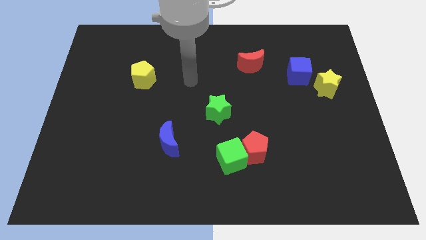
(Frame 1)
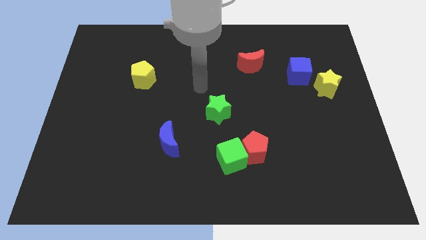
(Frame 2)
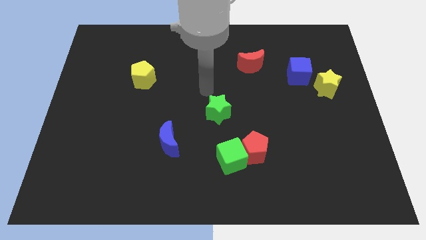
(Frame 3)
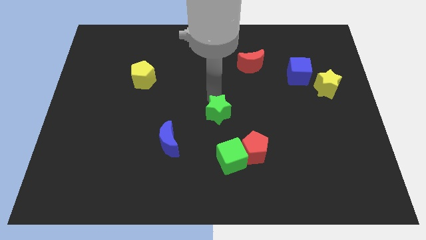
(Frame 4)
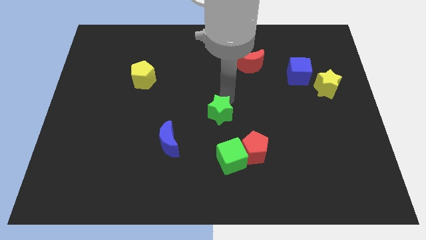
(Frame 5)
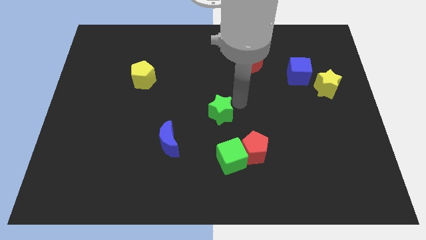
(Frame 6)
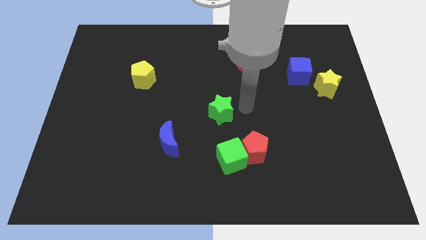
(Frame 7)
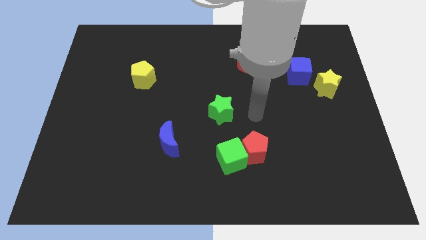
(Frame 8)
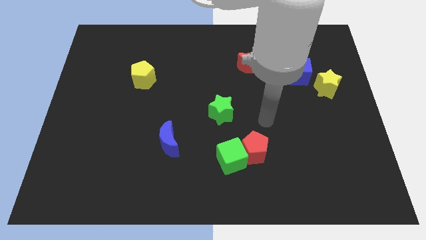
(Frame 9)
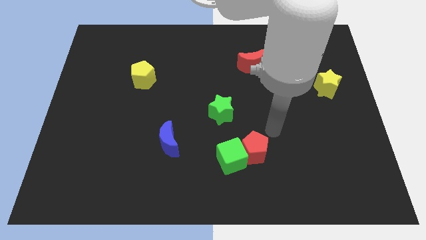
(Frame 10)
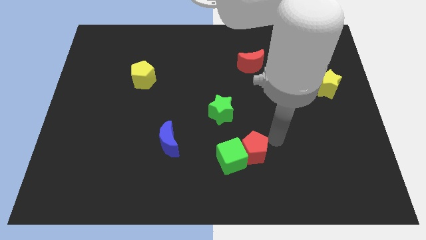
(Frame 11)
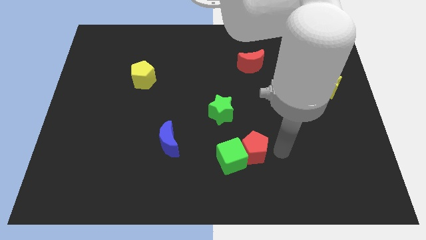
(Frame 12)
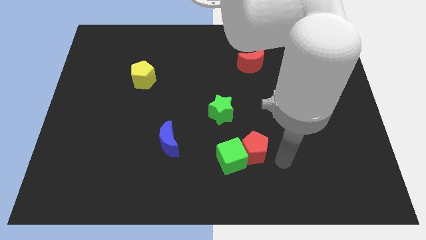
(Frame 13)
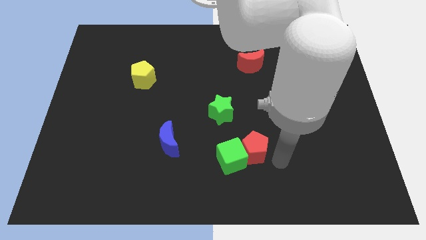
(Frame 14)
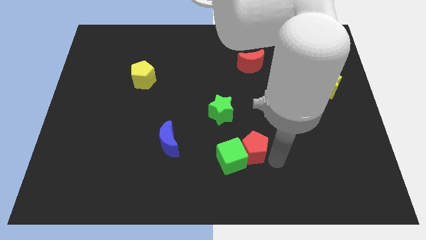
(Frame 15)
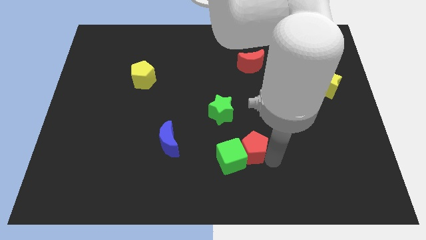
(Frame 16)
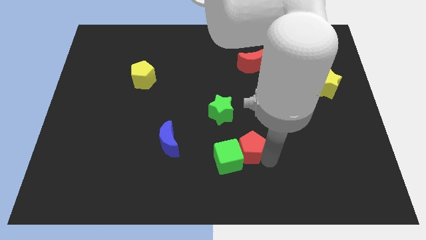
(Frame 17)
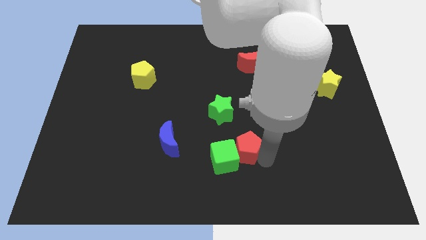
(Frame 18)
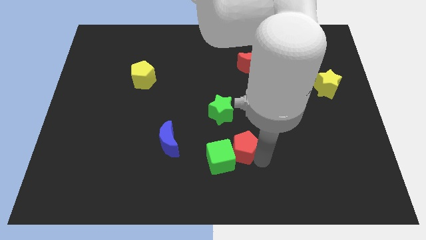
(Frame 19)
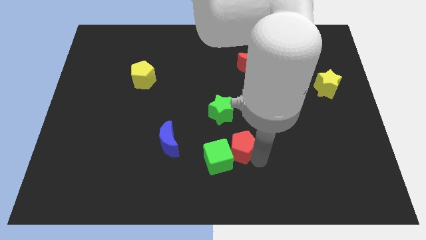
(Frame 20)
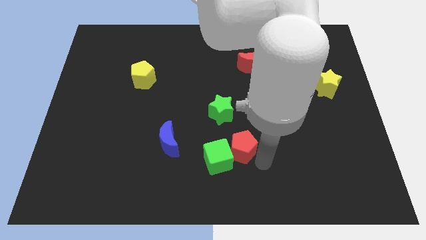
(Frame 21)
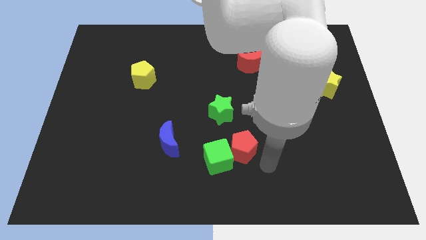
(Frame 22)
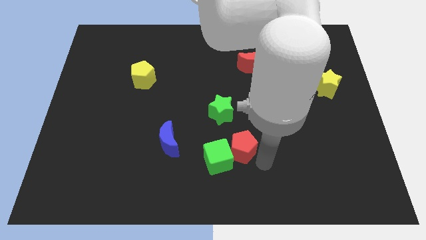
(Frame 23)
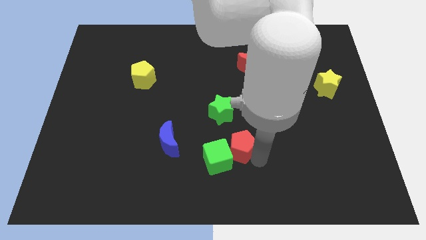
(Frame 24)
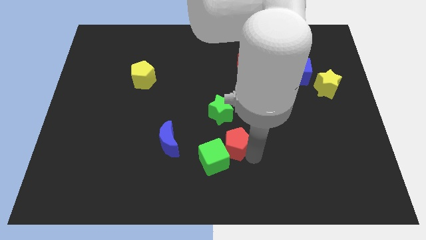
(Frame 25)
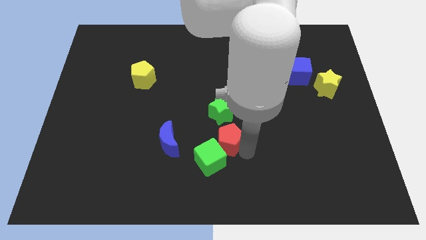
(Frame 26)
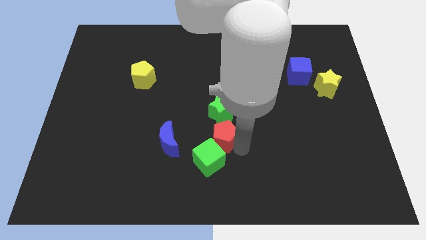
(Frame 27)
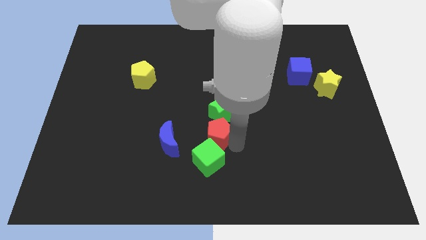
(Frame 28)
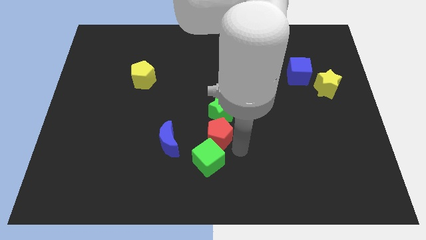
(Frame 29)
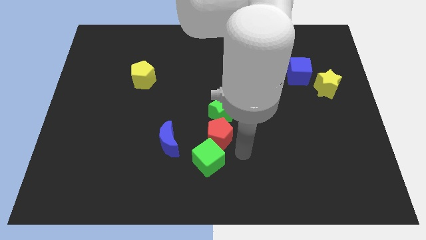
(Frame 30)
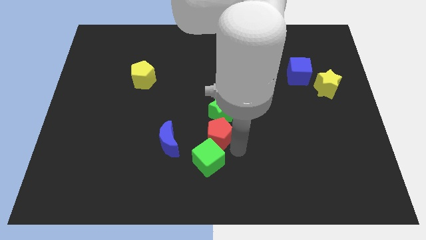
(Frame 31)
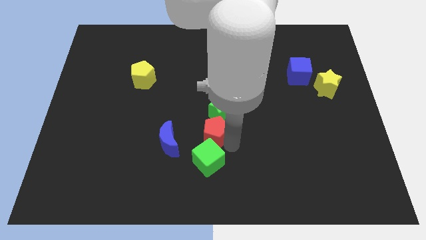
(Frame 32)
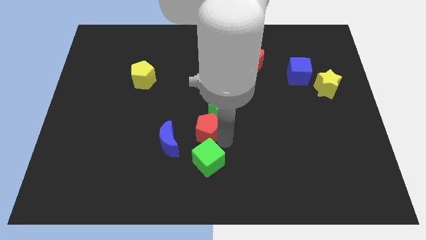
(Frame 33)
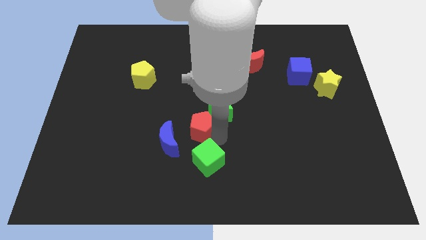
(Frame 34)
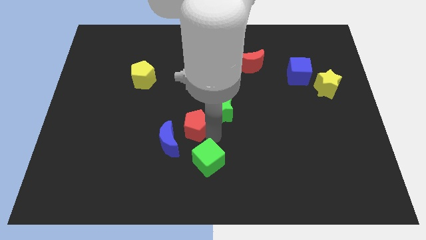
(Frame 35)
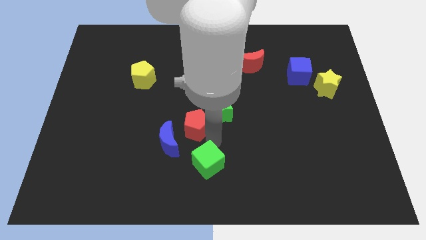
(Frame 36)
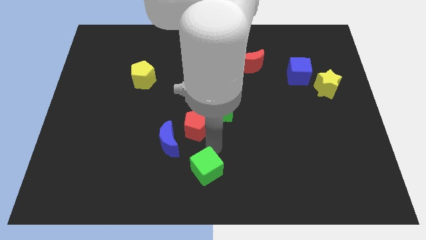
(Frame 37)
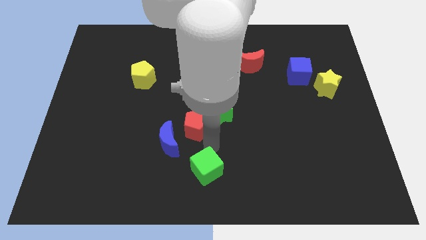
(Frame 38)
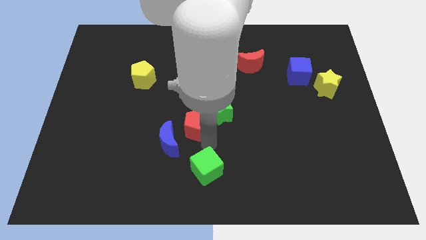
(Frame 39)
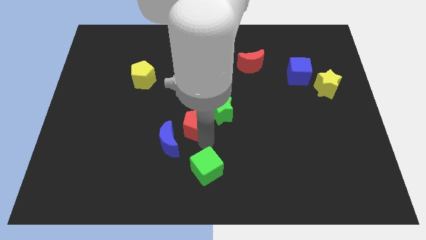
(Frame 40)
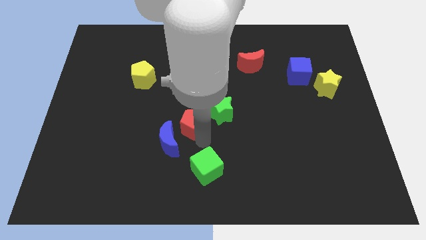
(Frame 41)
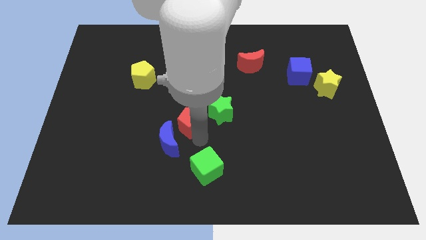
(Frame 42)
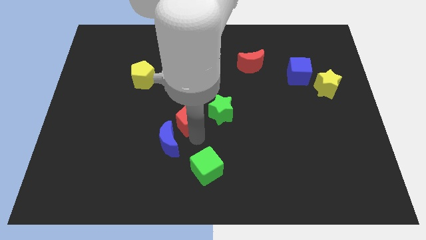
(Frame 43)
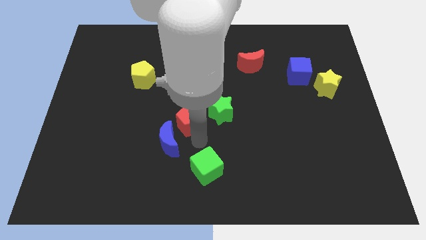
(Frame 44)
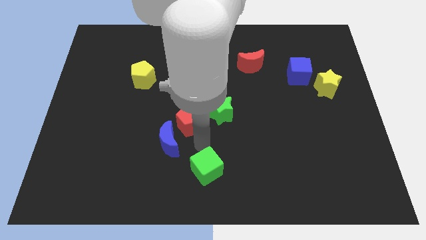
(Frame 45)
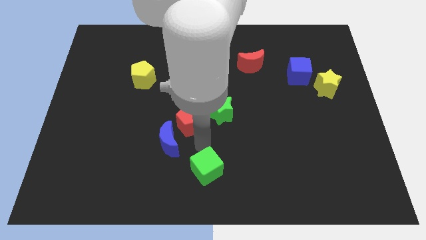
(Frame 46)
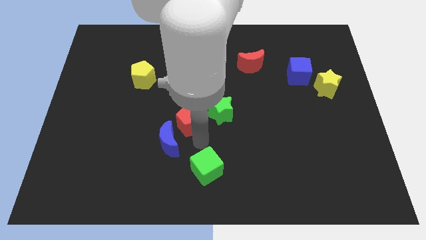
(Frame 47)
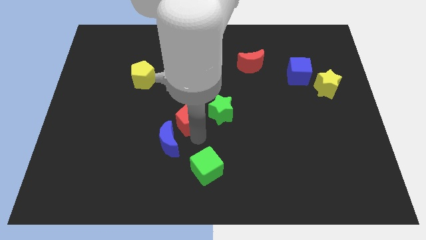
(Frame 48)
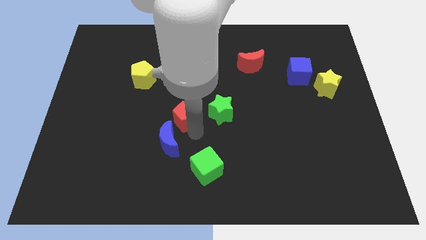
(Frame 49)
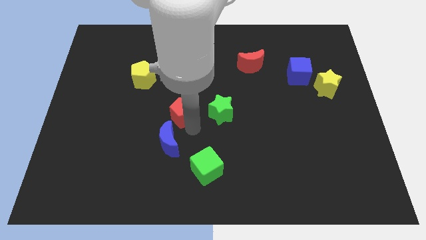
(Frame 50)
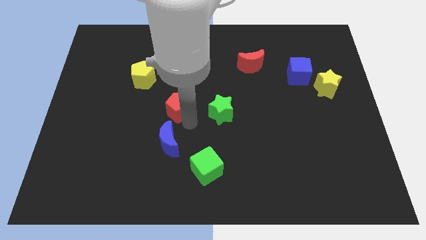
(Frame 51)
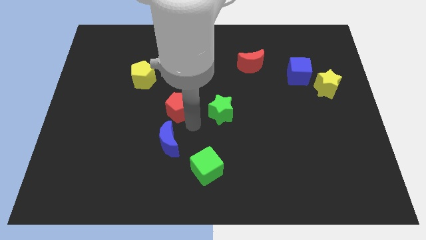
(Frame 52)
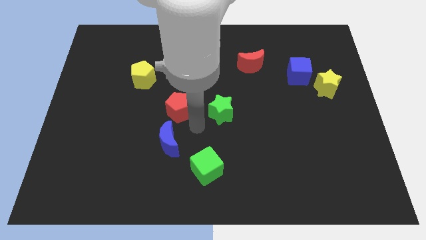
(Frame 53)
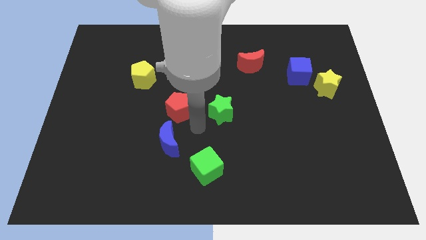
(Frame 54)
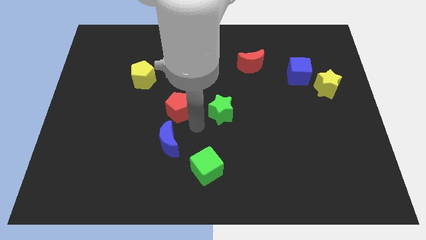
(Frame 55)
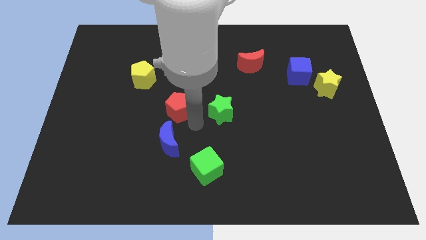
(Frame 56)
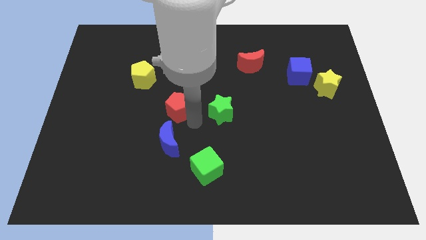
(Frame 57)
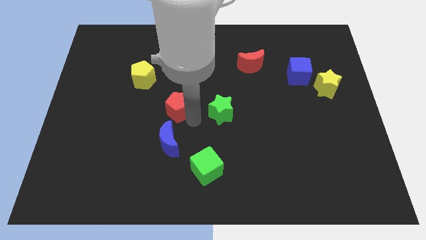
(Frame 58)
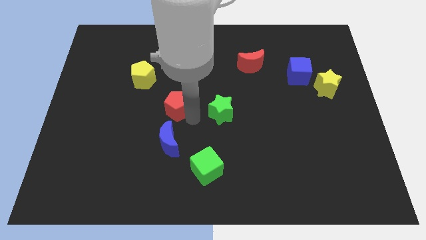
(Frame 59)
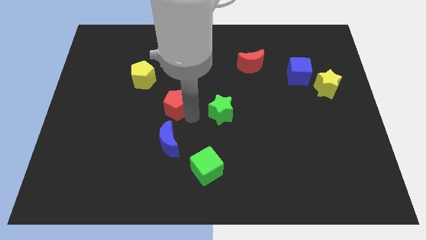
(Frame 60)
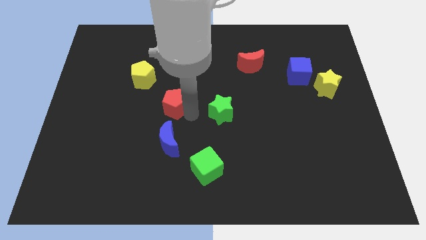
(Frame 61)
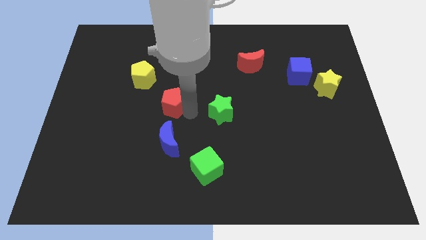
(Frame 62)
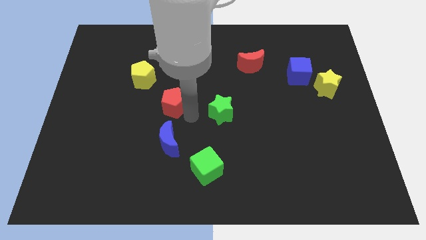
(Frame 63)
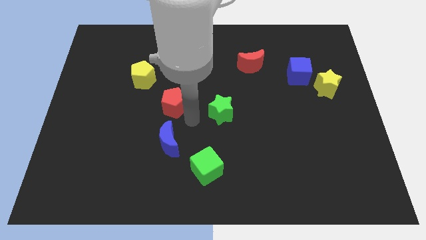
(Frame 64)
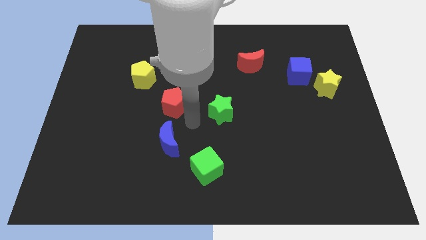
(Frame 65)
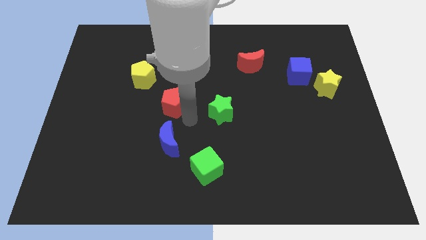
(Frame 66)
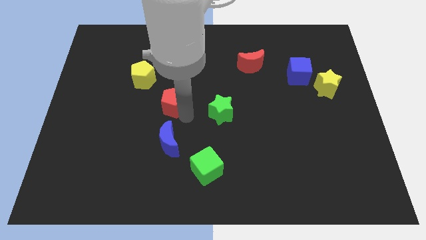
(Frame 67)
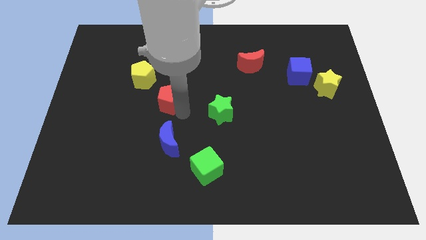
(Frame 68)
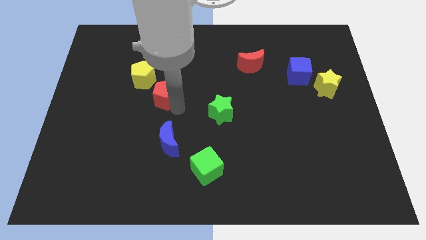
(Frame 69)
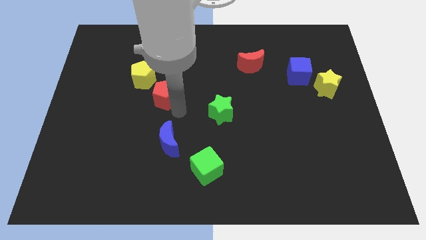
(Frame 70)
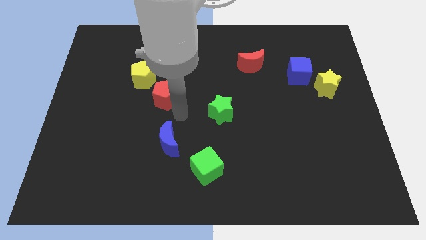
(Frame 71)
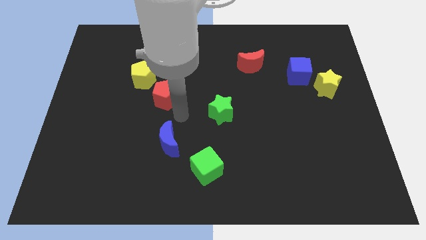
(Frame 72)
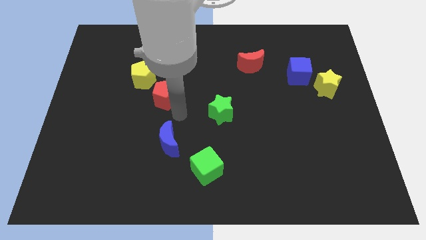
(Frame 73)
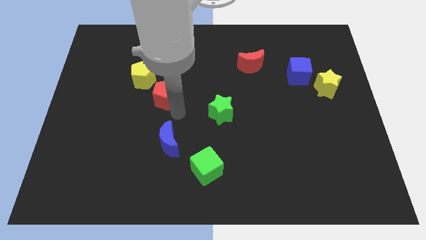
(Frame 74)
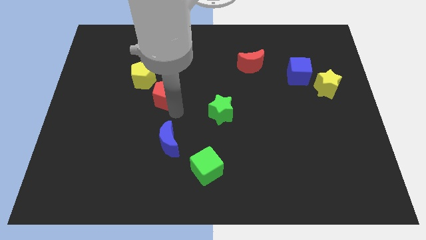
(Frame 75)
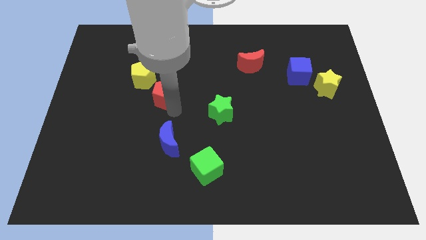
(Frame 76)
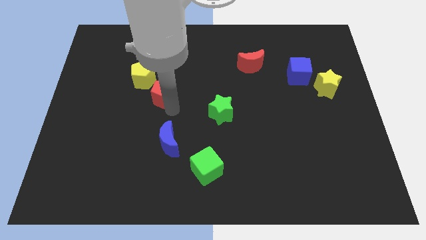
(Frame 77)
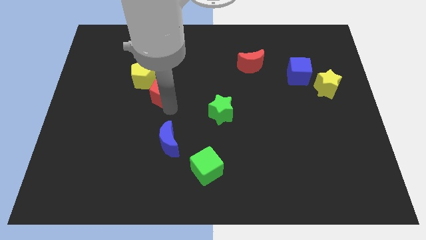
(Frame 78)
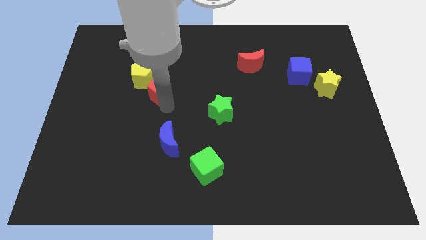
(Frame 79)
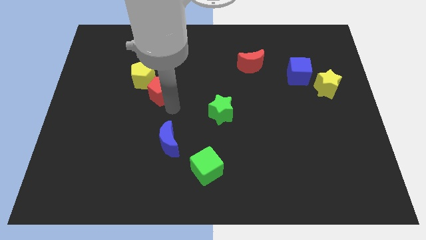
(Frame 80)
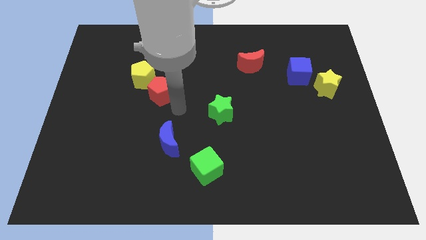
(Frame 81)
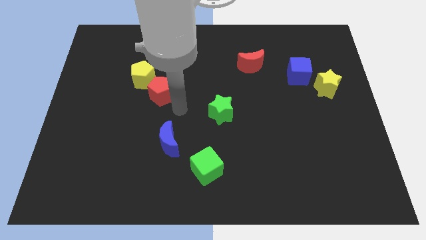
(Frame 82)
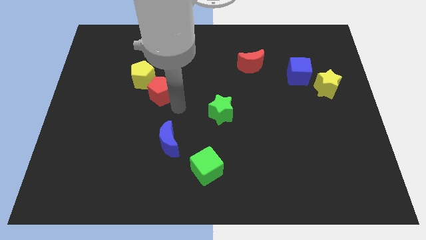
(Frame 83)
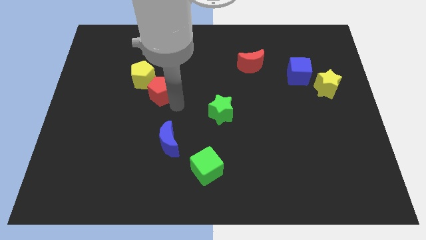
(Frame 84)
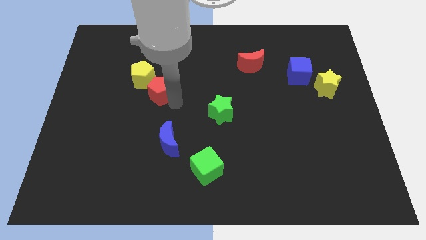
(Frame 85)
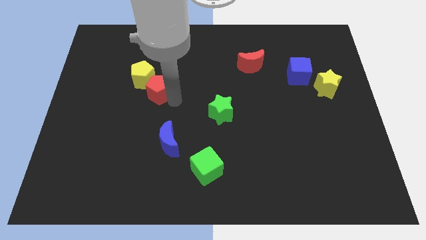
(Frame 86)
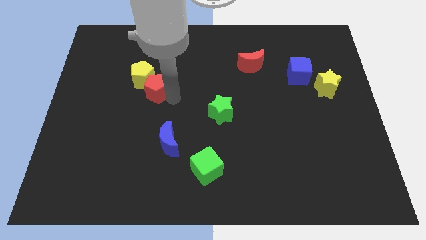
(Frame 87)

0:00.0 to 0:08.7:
slide the red pentagon close to the yellow pentagon
